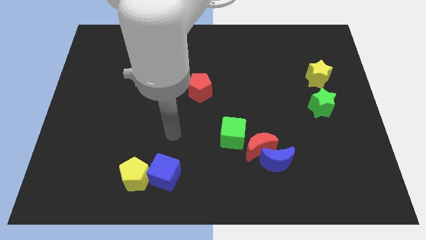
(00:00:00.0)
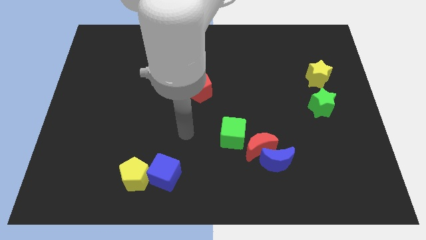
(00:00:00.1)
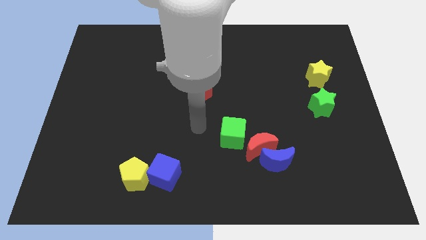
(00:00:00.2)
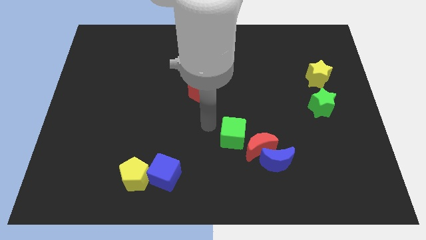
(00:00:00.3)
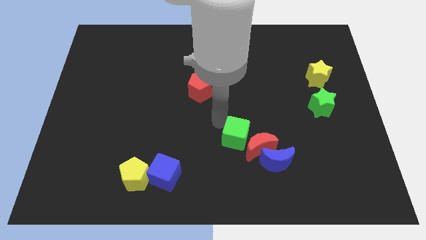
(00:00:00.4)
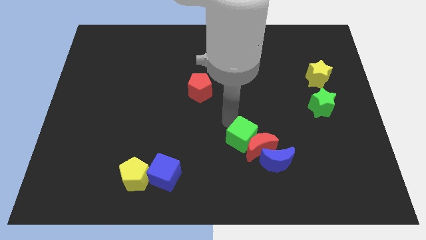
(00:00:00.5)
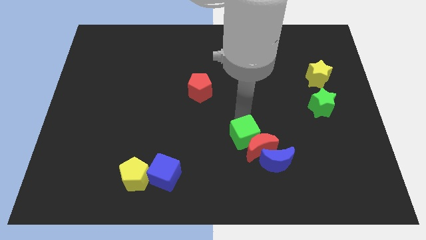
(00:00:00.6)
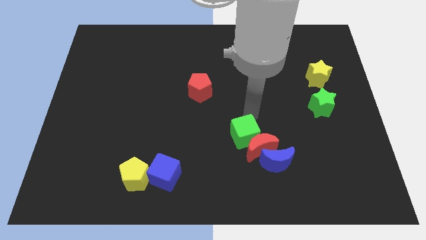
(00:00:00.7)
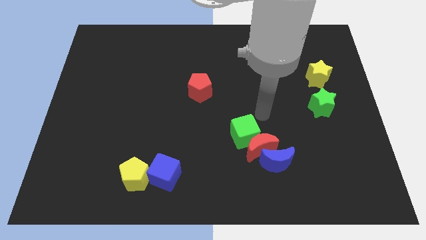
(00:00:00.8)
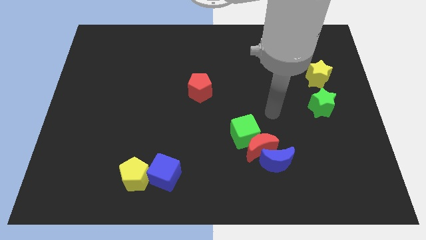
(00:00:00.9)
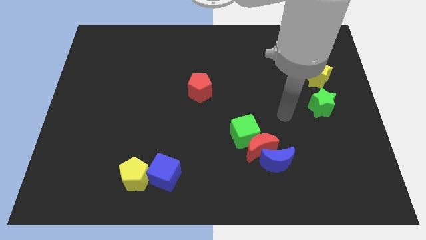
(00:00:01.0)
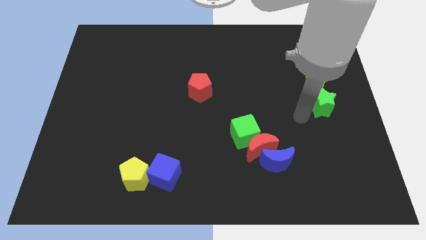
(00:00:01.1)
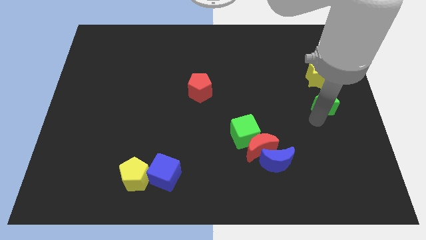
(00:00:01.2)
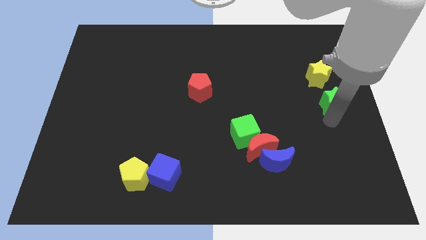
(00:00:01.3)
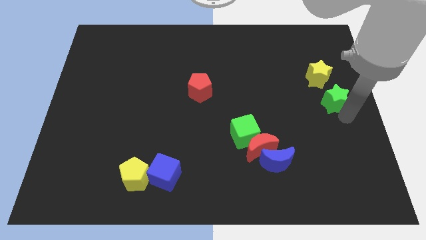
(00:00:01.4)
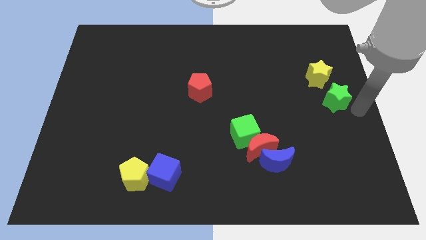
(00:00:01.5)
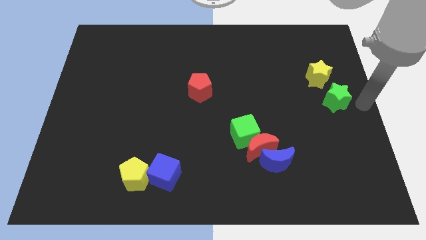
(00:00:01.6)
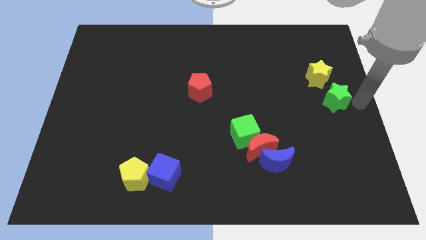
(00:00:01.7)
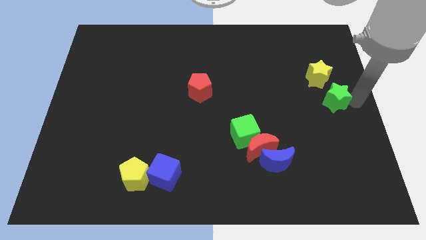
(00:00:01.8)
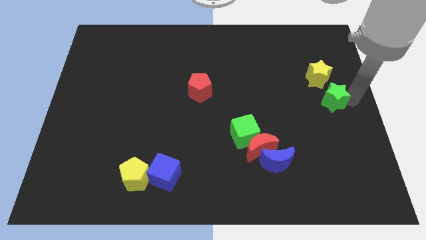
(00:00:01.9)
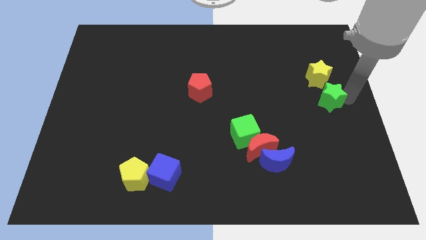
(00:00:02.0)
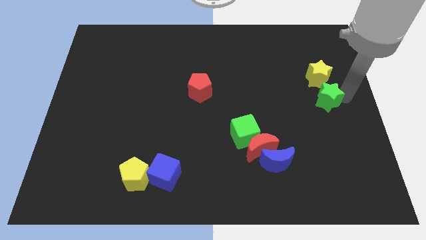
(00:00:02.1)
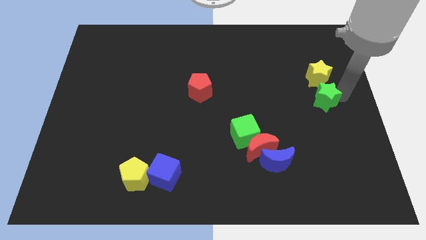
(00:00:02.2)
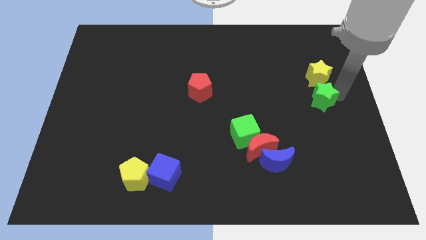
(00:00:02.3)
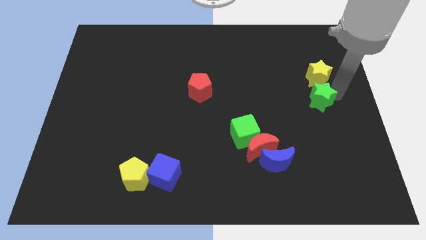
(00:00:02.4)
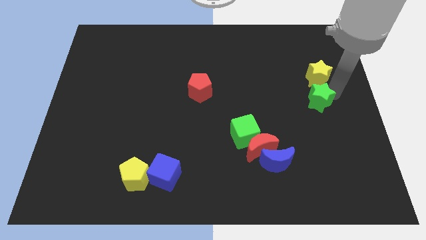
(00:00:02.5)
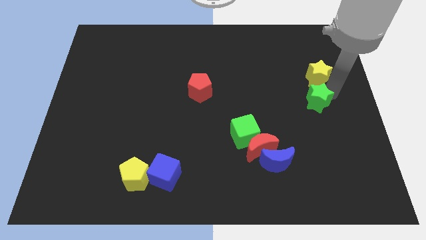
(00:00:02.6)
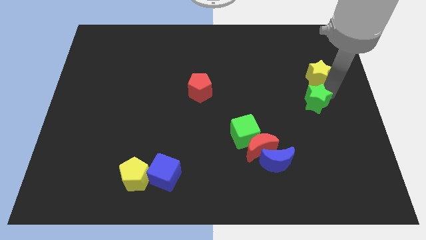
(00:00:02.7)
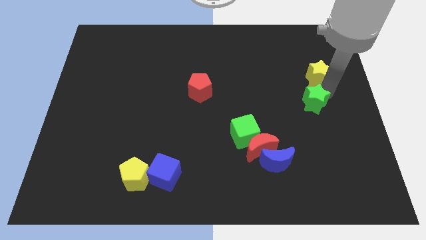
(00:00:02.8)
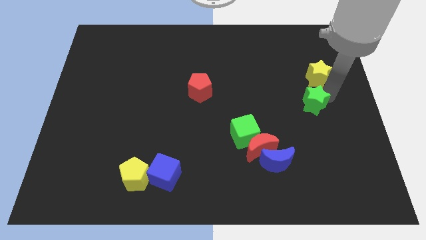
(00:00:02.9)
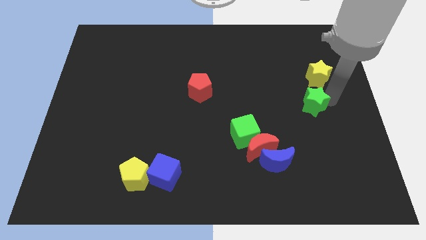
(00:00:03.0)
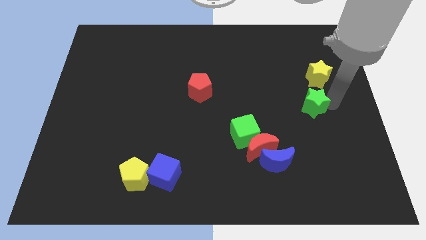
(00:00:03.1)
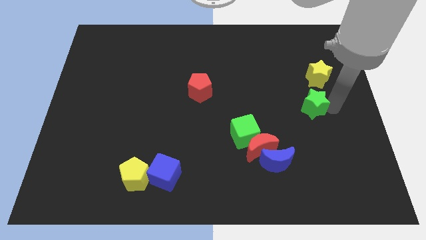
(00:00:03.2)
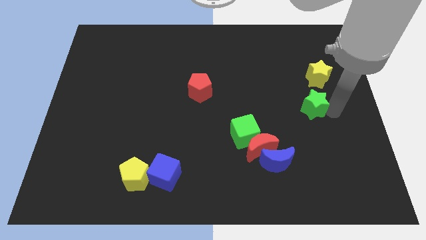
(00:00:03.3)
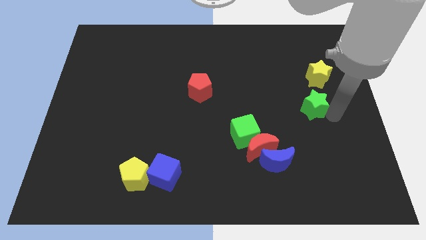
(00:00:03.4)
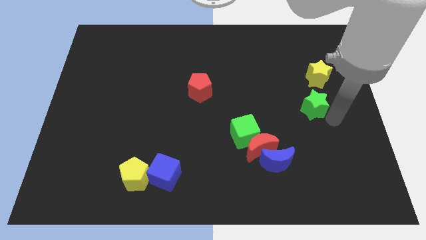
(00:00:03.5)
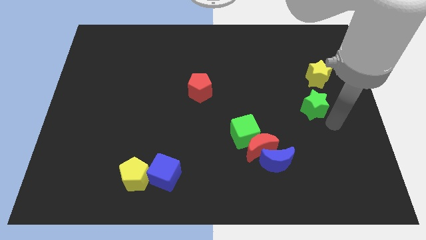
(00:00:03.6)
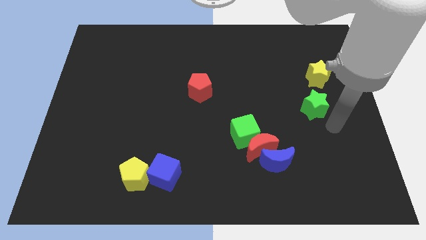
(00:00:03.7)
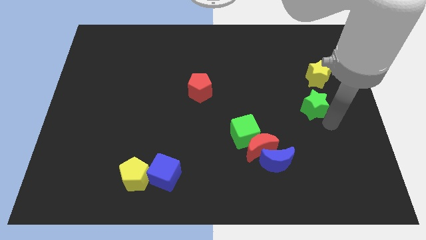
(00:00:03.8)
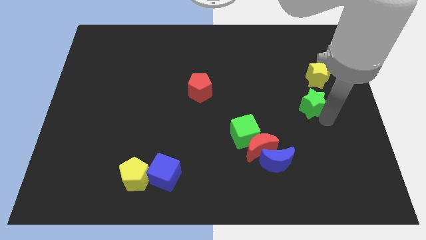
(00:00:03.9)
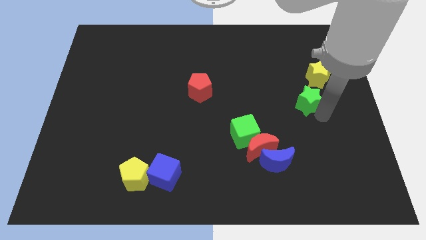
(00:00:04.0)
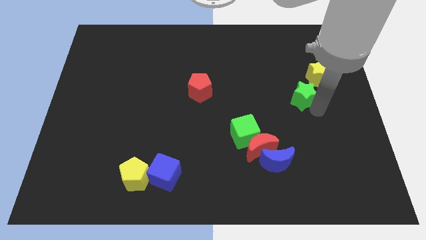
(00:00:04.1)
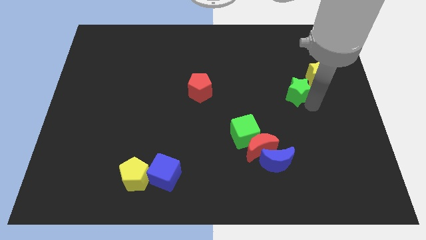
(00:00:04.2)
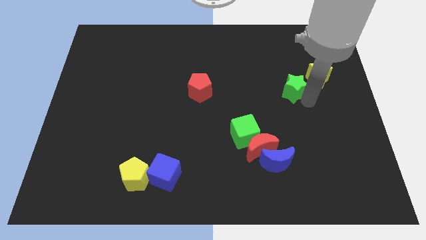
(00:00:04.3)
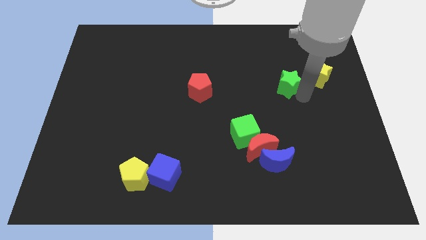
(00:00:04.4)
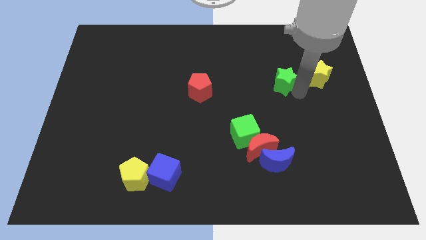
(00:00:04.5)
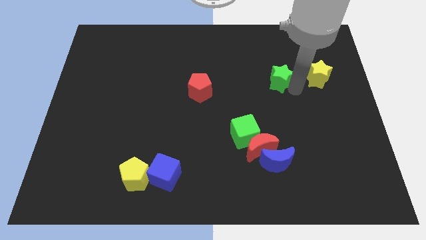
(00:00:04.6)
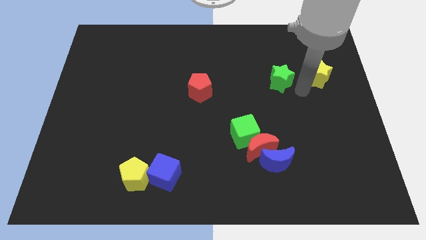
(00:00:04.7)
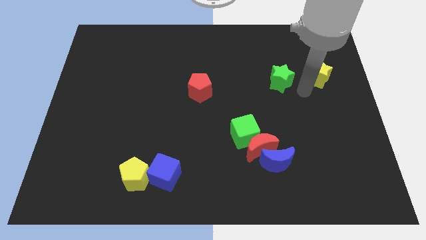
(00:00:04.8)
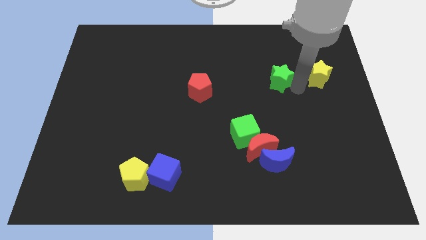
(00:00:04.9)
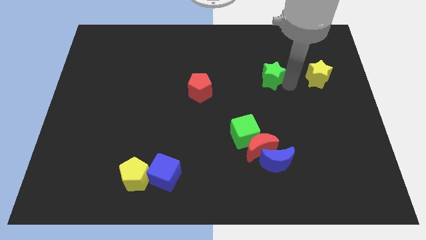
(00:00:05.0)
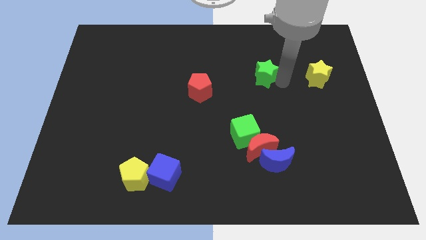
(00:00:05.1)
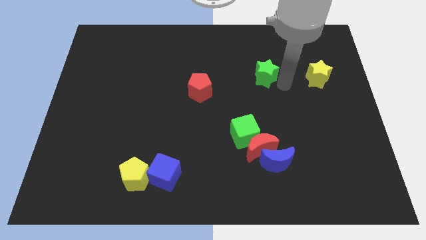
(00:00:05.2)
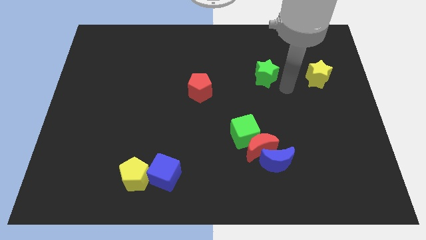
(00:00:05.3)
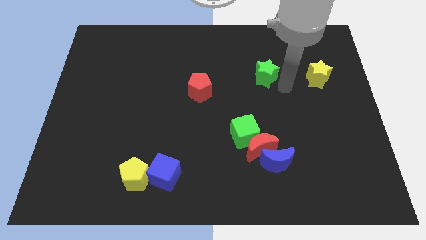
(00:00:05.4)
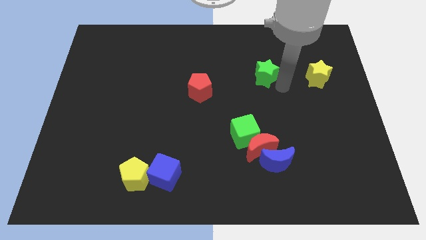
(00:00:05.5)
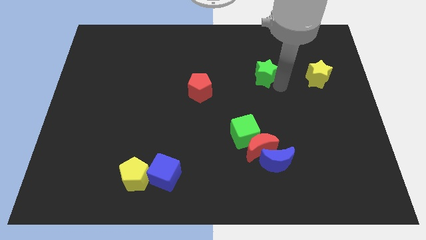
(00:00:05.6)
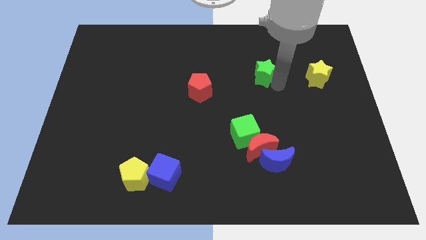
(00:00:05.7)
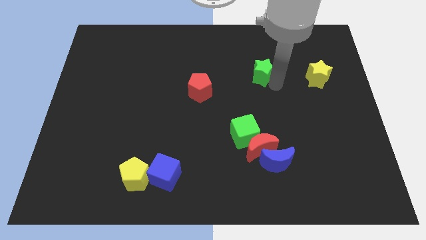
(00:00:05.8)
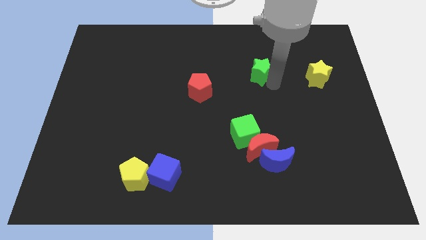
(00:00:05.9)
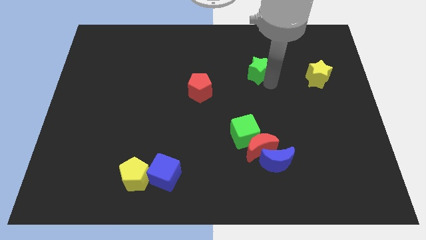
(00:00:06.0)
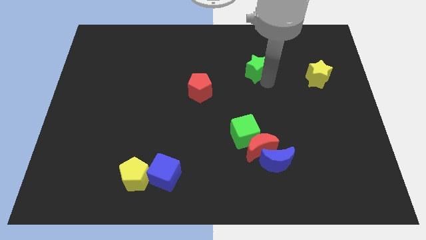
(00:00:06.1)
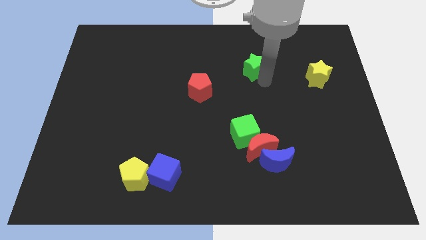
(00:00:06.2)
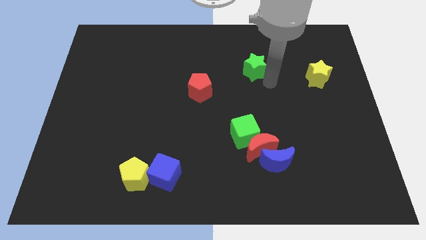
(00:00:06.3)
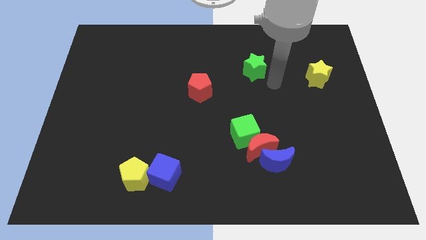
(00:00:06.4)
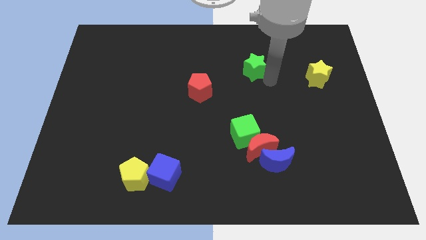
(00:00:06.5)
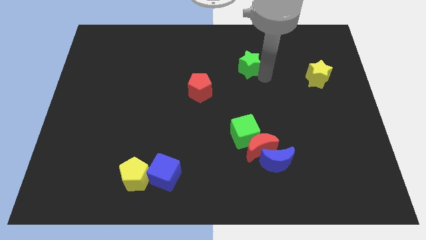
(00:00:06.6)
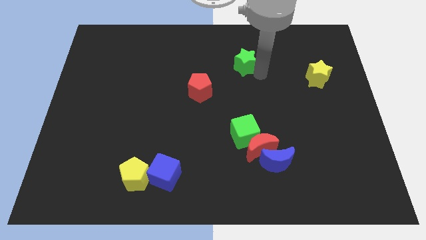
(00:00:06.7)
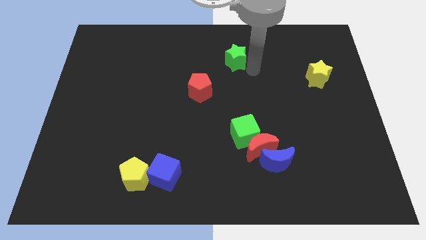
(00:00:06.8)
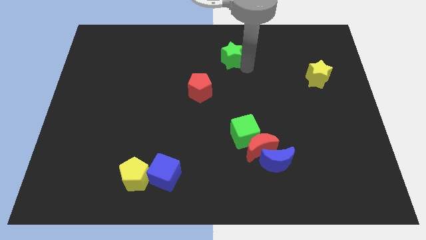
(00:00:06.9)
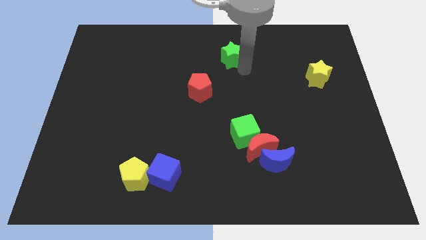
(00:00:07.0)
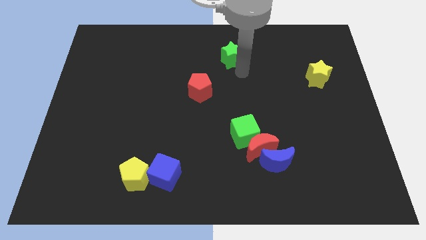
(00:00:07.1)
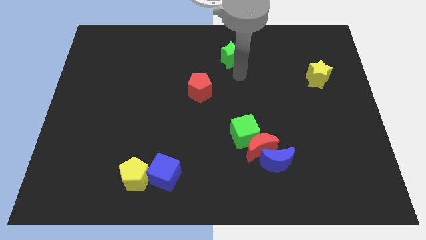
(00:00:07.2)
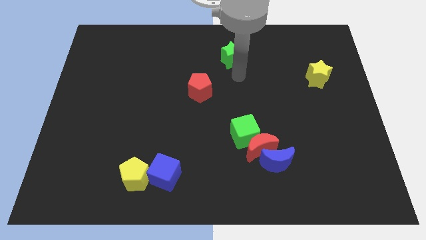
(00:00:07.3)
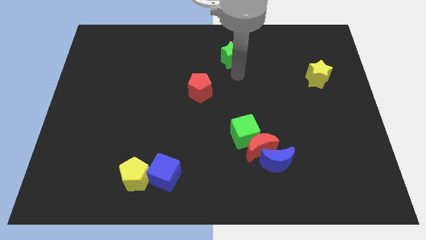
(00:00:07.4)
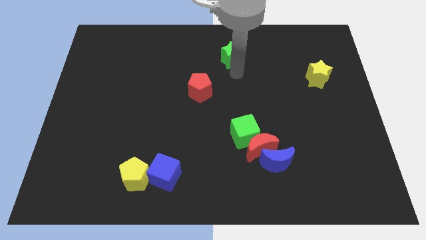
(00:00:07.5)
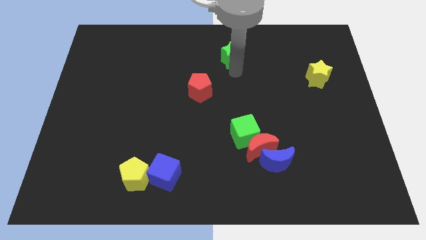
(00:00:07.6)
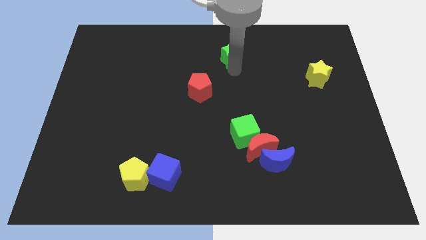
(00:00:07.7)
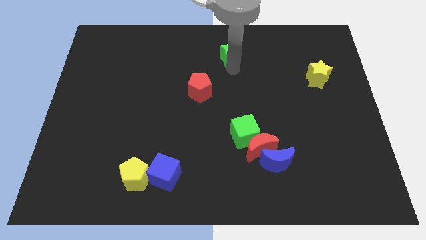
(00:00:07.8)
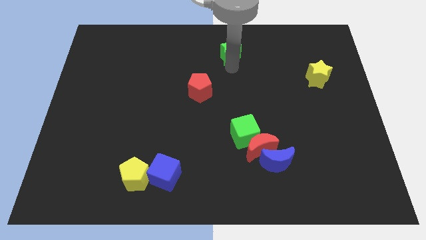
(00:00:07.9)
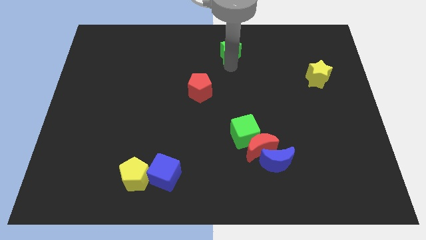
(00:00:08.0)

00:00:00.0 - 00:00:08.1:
move the green star to the top side
